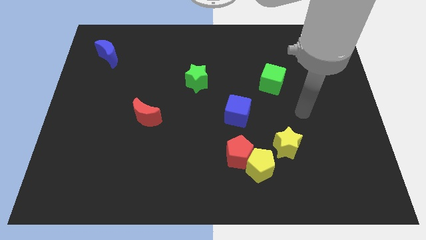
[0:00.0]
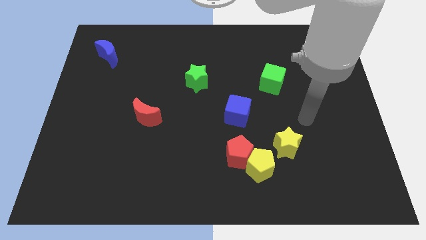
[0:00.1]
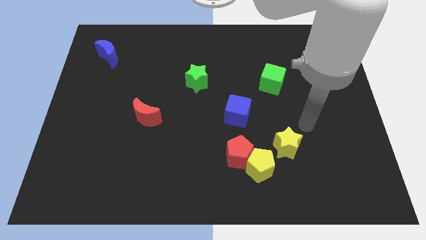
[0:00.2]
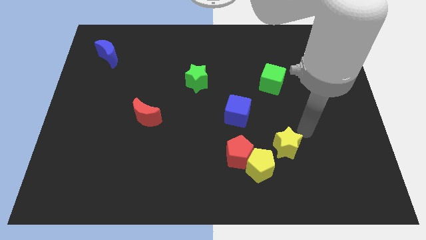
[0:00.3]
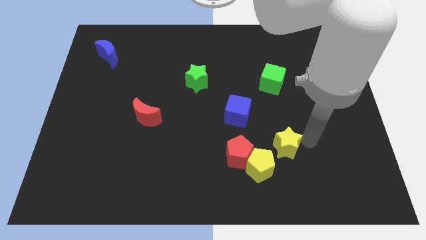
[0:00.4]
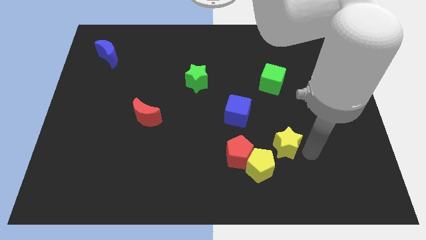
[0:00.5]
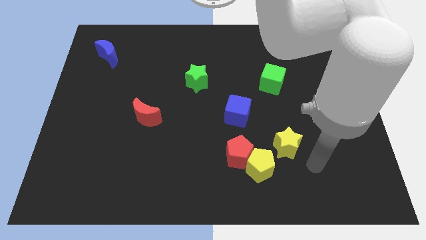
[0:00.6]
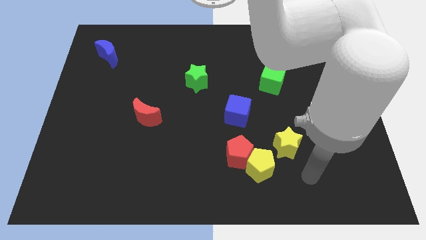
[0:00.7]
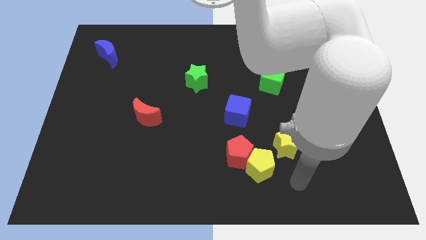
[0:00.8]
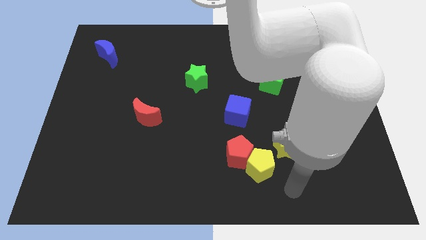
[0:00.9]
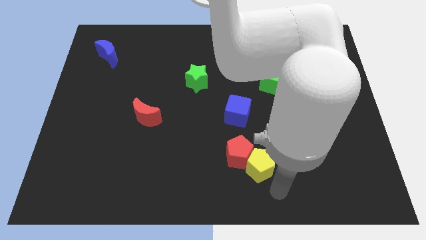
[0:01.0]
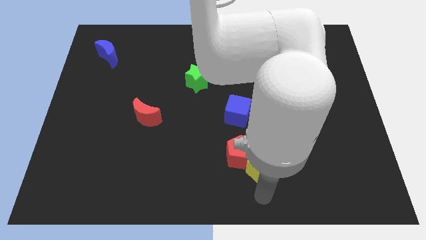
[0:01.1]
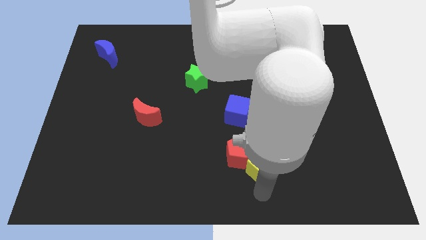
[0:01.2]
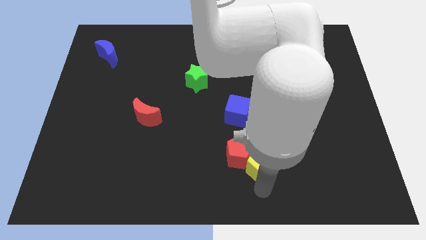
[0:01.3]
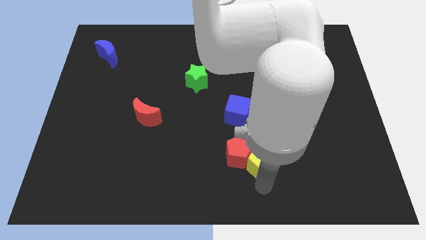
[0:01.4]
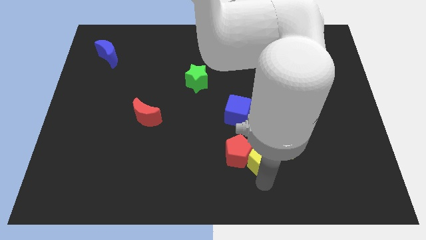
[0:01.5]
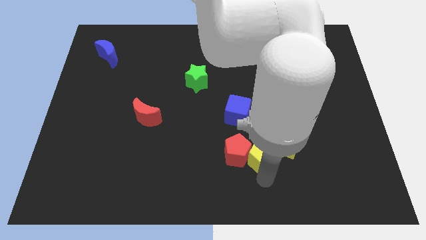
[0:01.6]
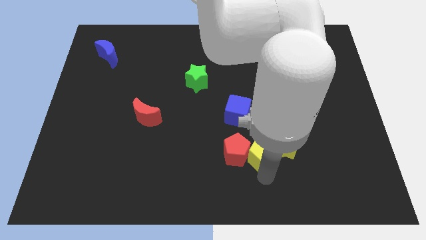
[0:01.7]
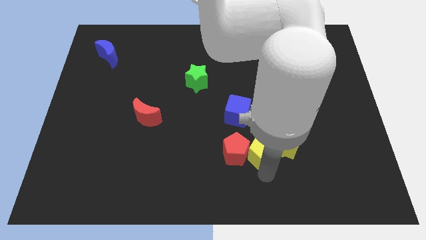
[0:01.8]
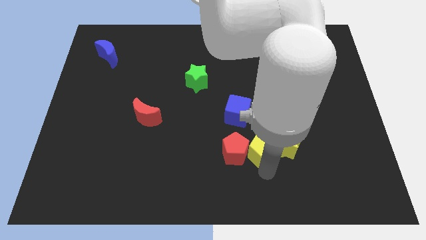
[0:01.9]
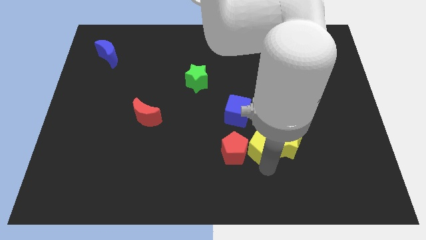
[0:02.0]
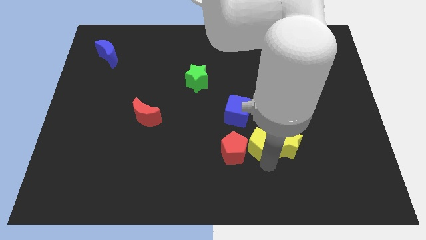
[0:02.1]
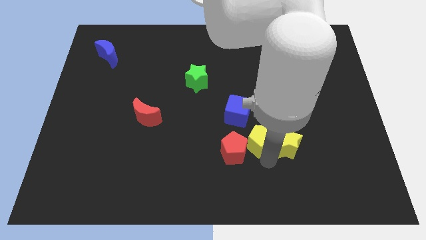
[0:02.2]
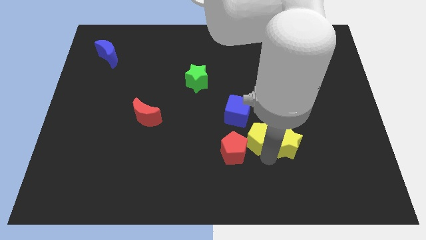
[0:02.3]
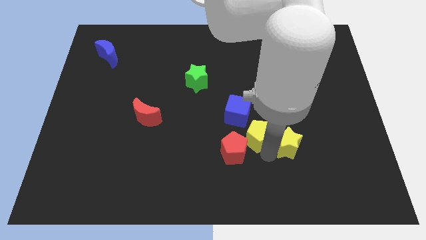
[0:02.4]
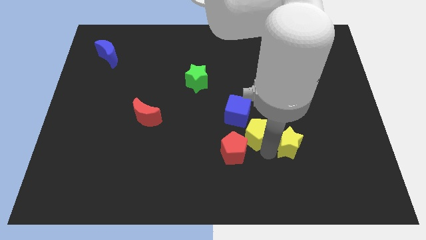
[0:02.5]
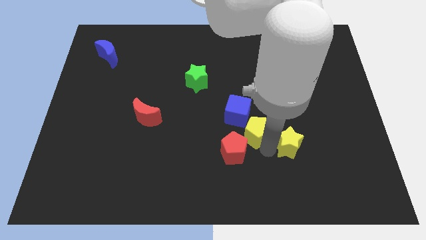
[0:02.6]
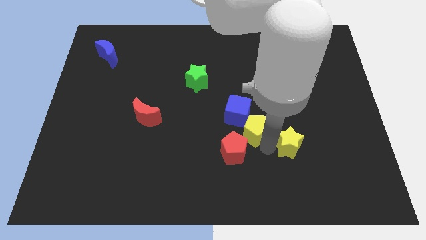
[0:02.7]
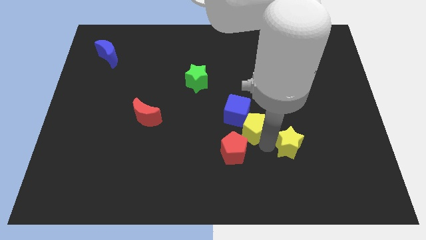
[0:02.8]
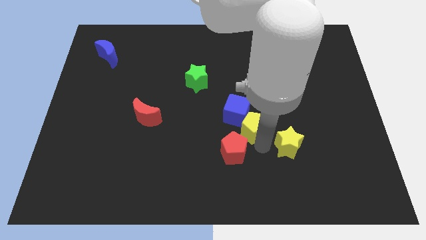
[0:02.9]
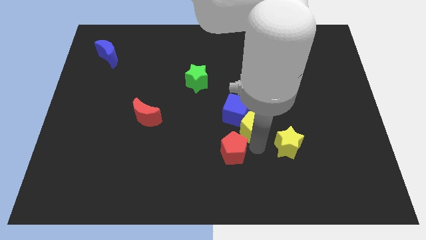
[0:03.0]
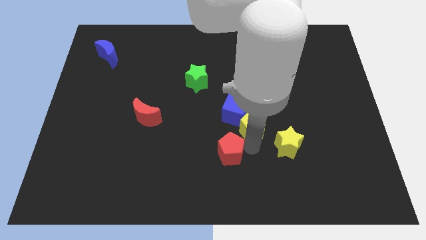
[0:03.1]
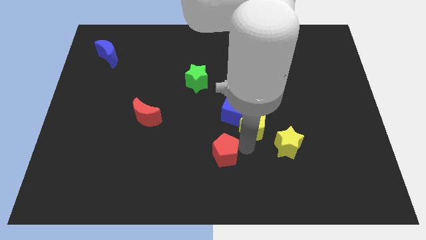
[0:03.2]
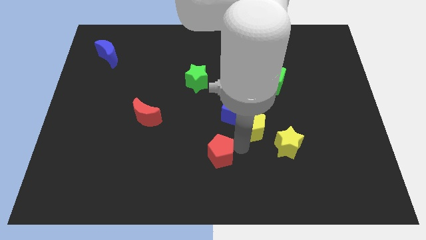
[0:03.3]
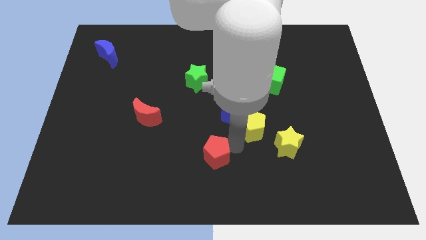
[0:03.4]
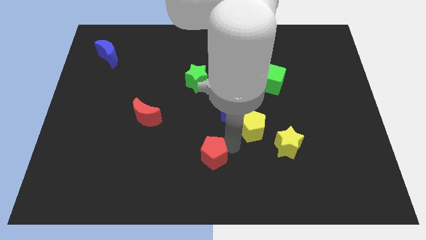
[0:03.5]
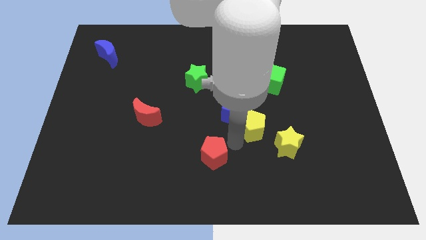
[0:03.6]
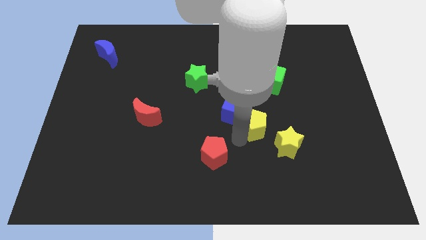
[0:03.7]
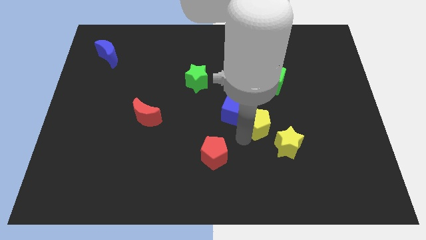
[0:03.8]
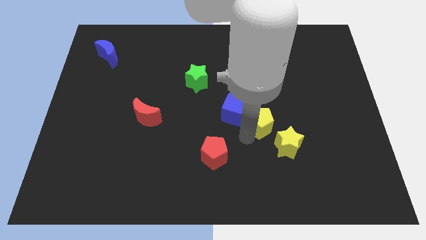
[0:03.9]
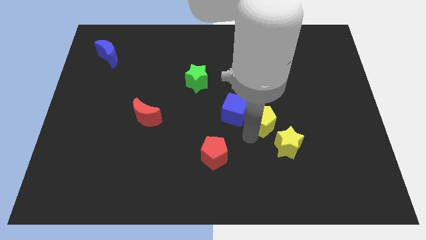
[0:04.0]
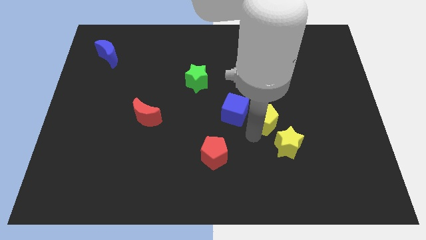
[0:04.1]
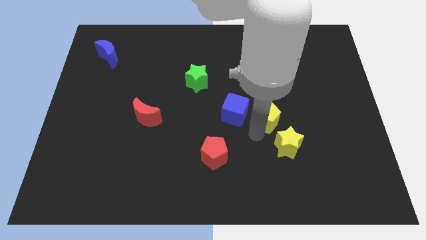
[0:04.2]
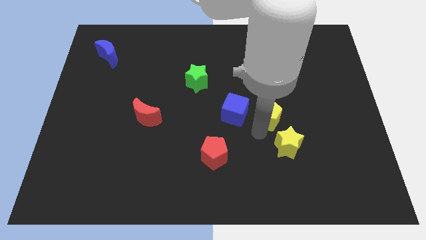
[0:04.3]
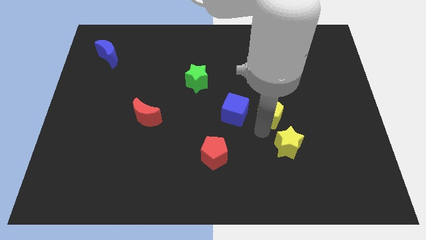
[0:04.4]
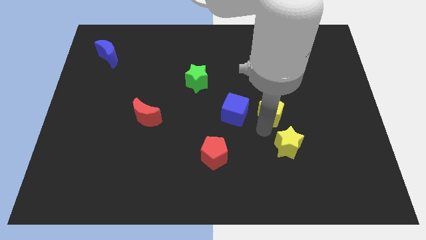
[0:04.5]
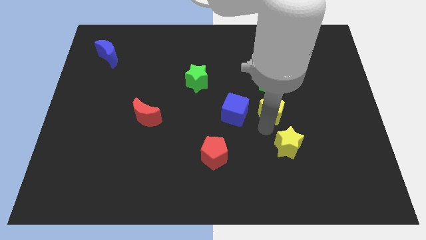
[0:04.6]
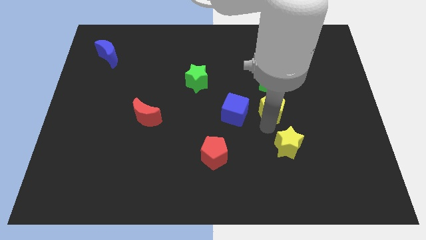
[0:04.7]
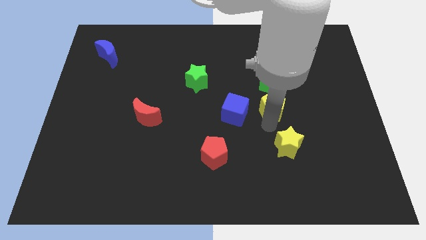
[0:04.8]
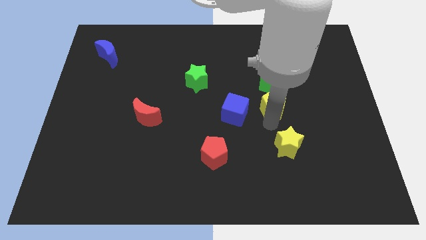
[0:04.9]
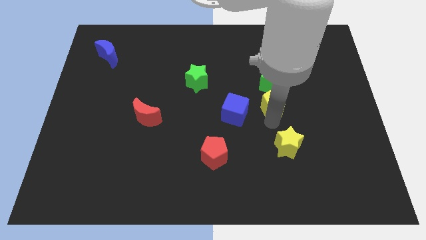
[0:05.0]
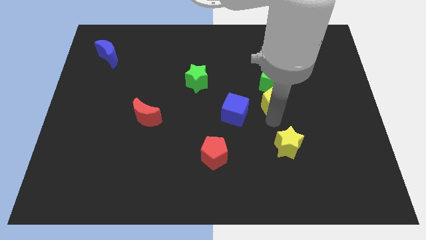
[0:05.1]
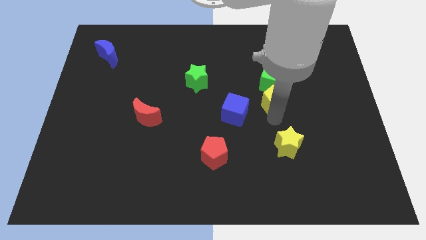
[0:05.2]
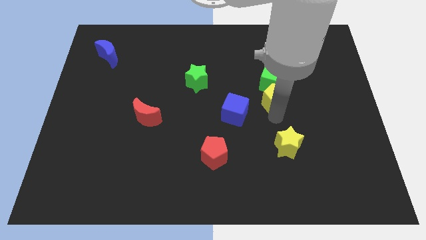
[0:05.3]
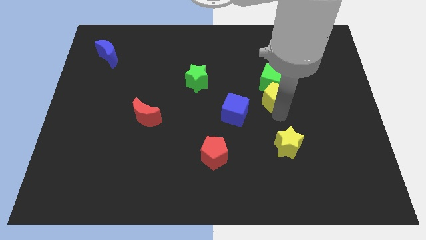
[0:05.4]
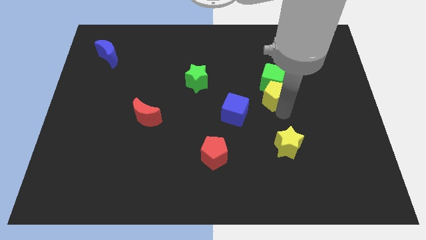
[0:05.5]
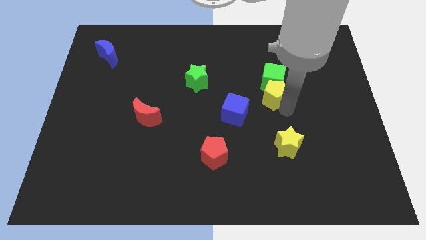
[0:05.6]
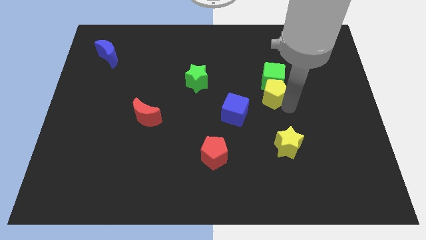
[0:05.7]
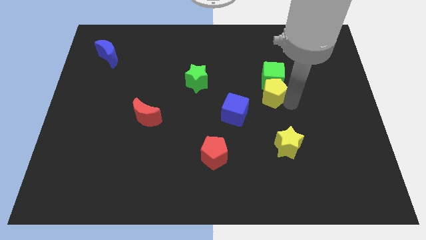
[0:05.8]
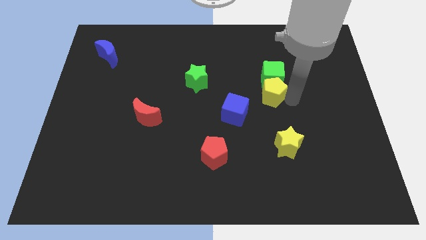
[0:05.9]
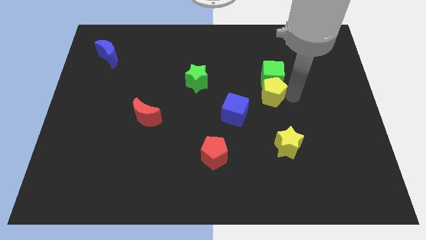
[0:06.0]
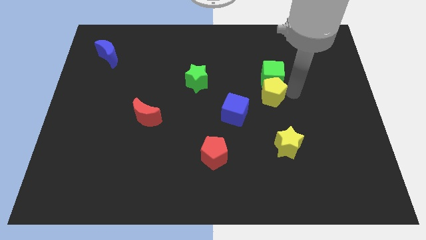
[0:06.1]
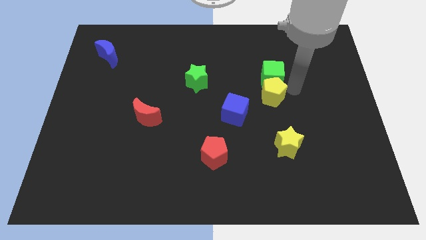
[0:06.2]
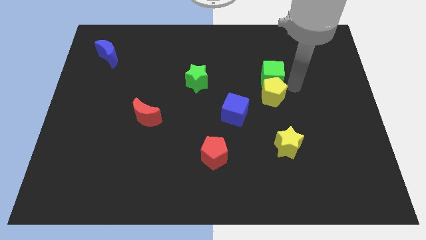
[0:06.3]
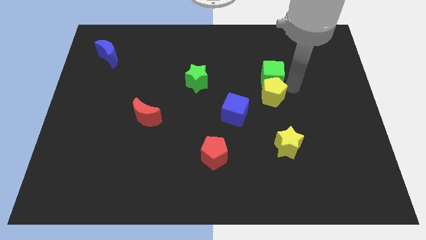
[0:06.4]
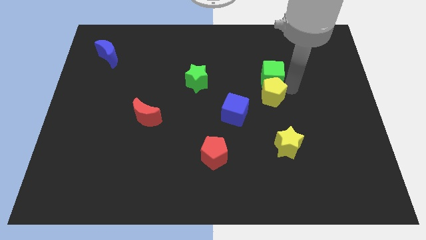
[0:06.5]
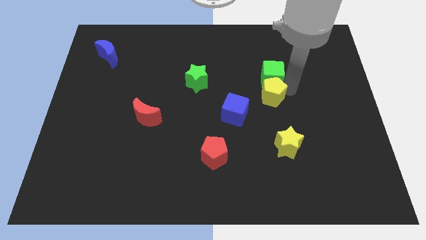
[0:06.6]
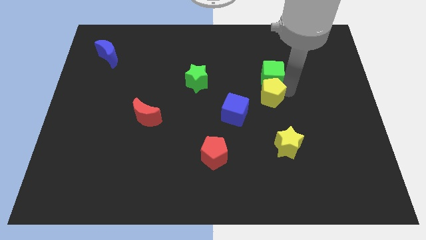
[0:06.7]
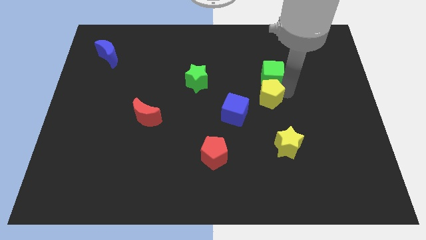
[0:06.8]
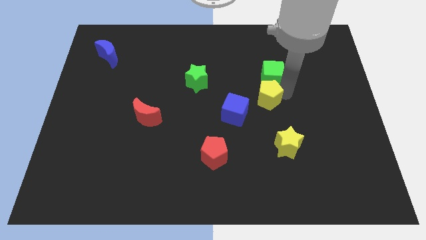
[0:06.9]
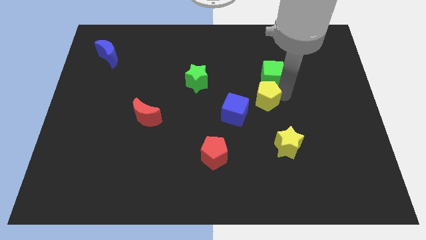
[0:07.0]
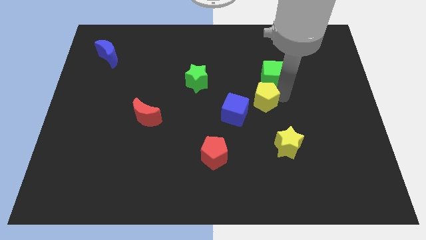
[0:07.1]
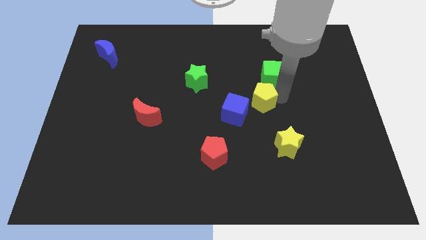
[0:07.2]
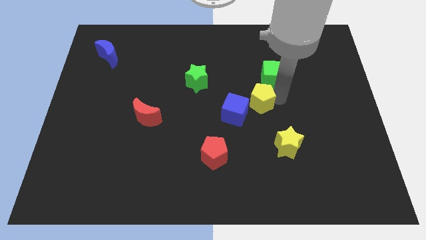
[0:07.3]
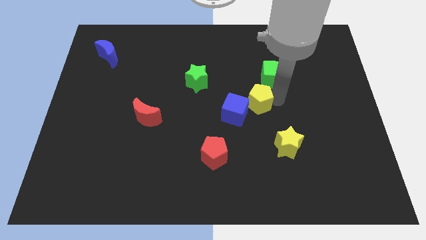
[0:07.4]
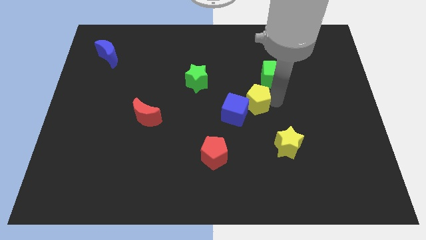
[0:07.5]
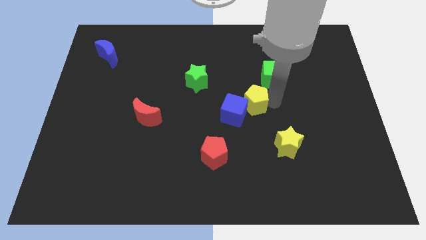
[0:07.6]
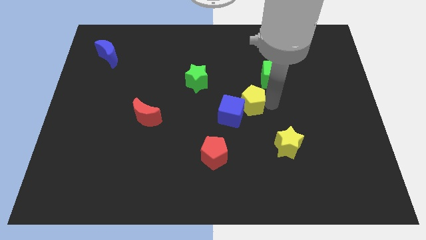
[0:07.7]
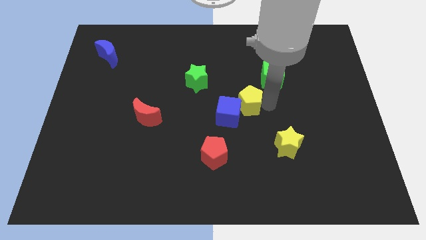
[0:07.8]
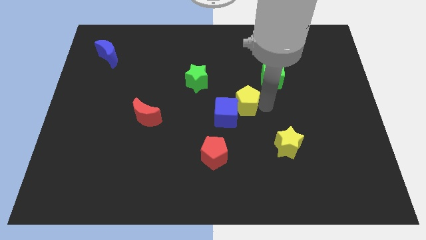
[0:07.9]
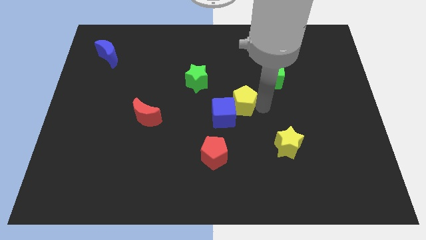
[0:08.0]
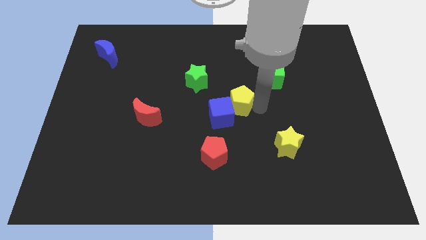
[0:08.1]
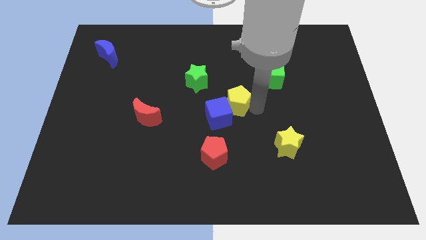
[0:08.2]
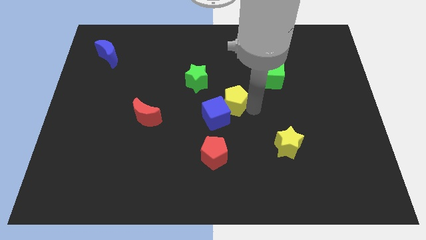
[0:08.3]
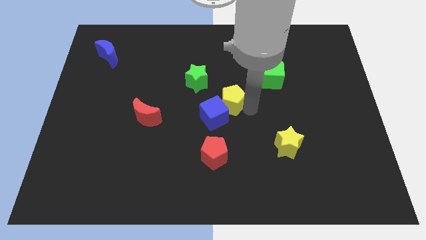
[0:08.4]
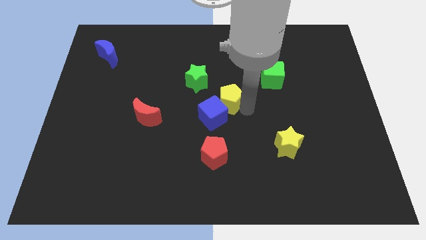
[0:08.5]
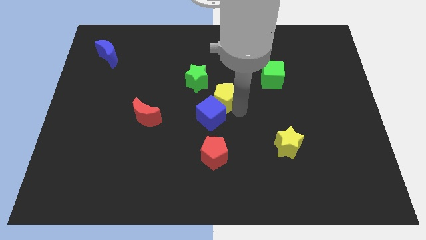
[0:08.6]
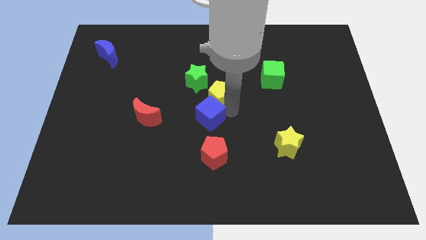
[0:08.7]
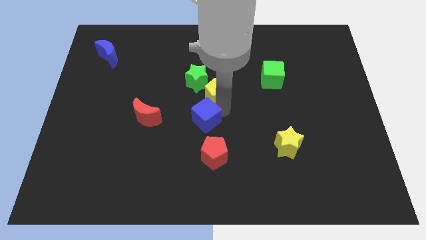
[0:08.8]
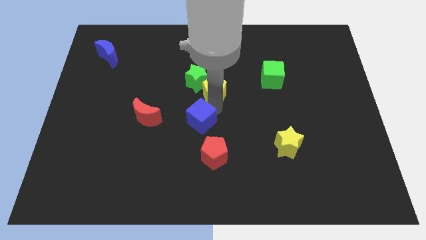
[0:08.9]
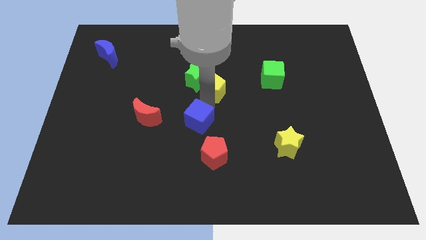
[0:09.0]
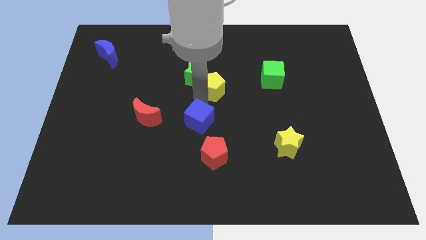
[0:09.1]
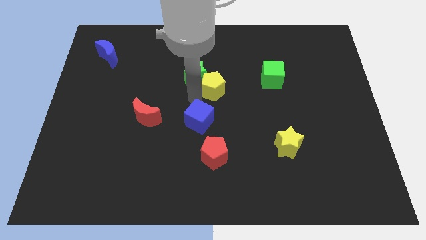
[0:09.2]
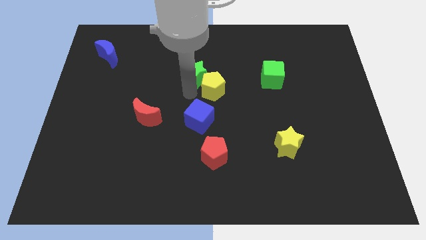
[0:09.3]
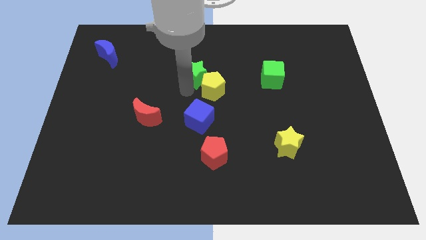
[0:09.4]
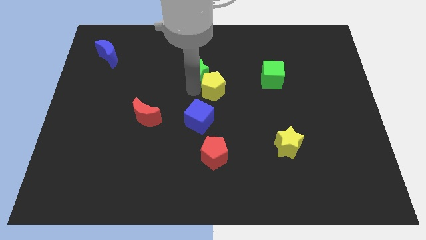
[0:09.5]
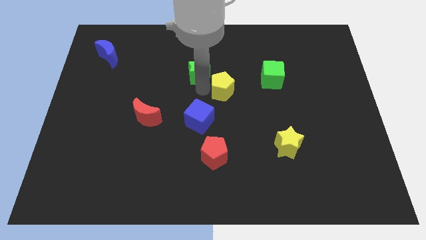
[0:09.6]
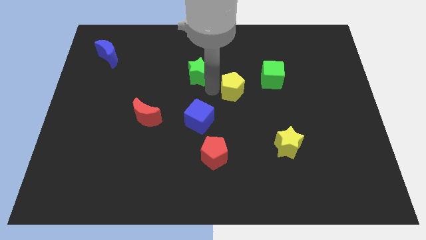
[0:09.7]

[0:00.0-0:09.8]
slide the yellow pentagon up
